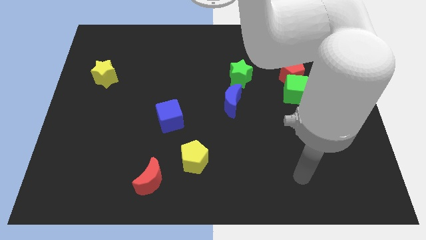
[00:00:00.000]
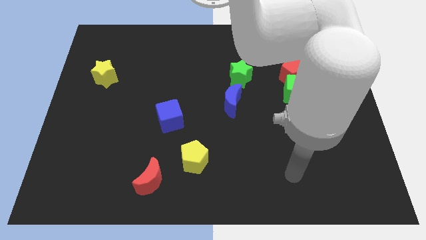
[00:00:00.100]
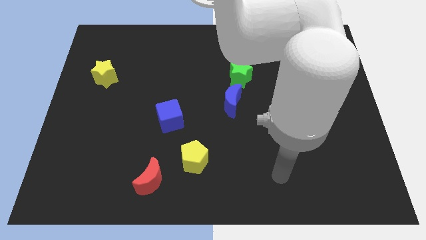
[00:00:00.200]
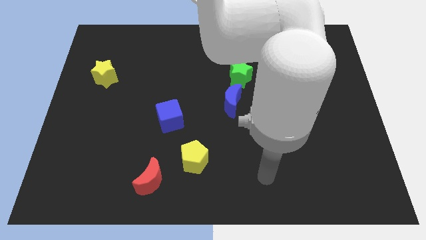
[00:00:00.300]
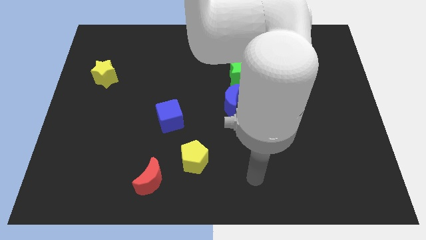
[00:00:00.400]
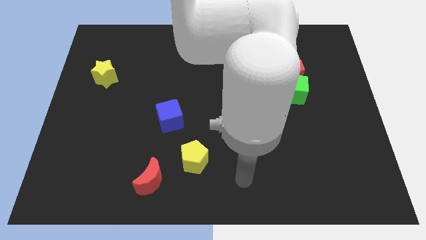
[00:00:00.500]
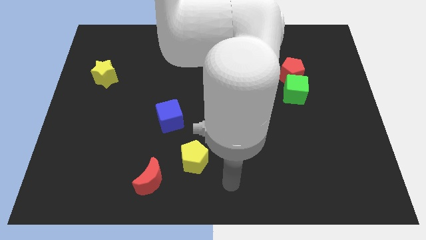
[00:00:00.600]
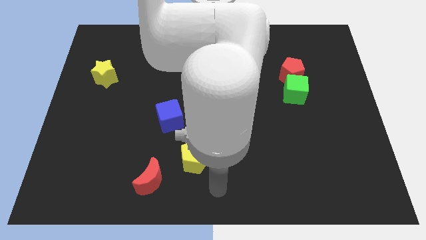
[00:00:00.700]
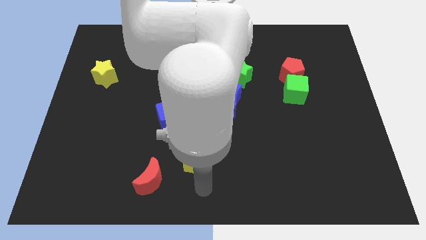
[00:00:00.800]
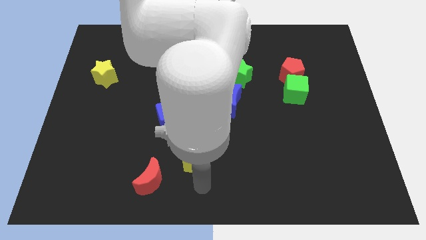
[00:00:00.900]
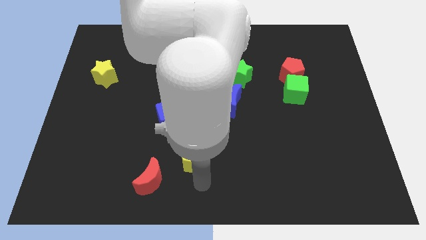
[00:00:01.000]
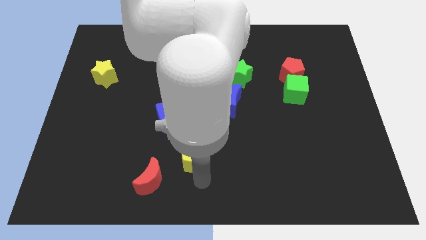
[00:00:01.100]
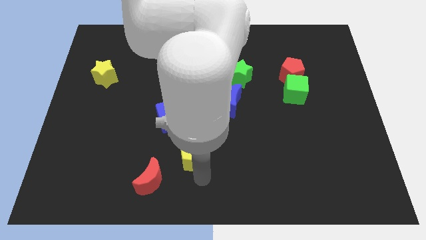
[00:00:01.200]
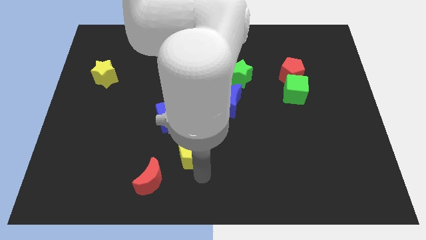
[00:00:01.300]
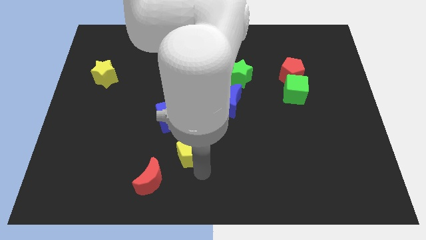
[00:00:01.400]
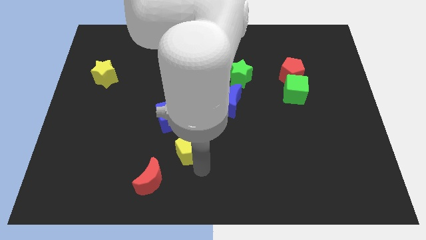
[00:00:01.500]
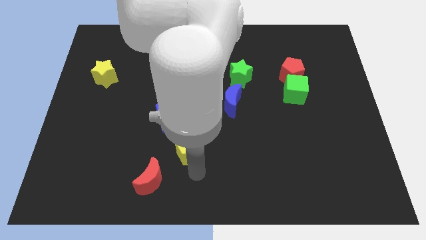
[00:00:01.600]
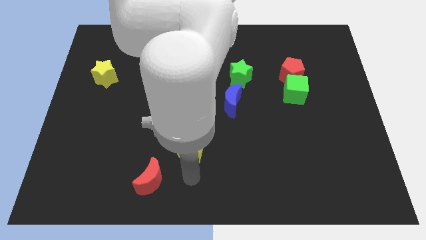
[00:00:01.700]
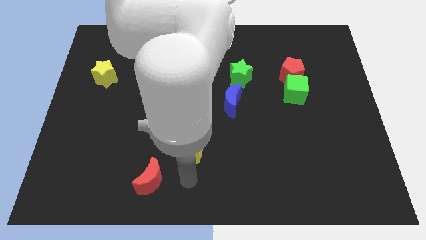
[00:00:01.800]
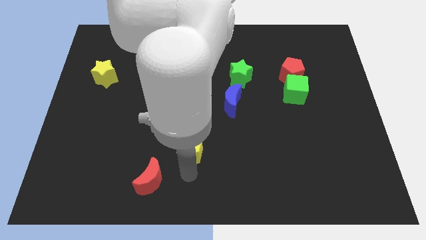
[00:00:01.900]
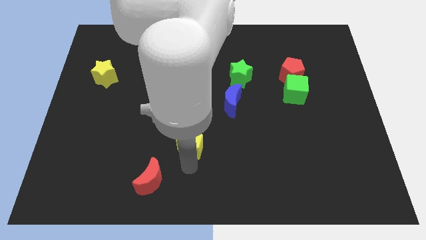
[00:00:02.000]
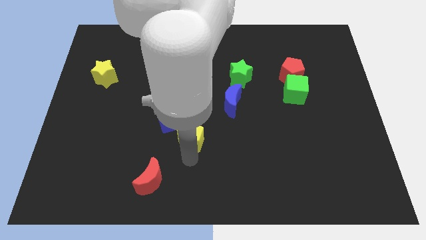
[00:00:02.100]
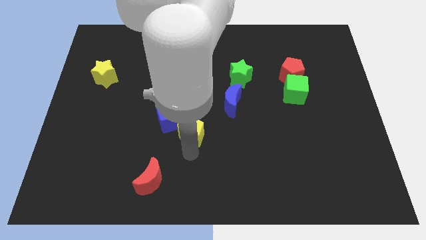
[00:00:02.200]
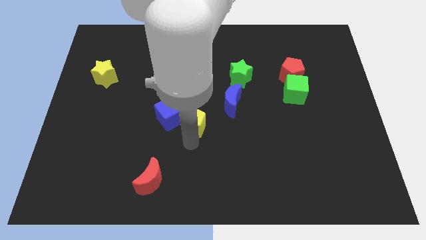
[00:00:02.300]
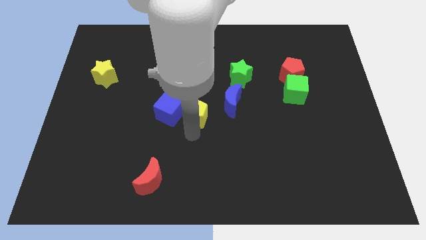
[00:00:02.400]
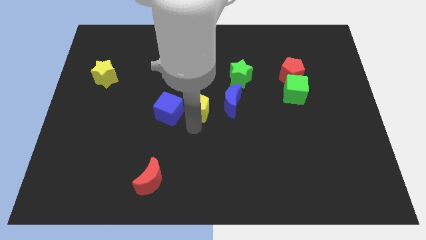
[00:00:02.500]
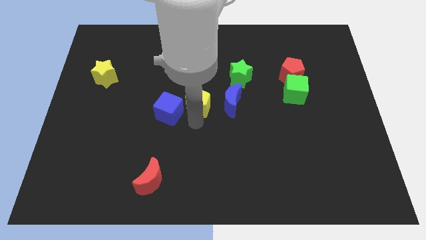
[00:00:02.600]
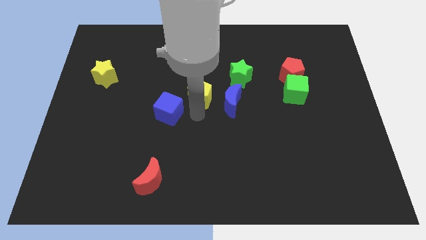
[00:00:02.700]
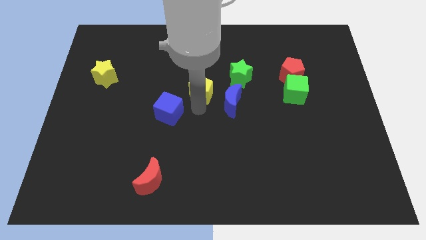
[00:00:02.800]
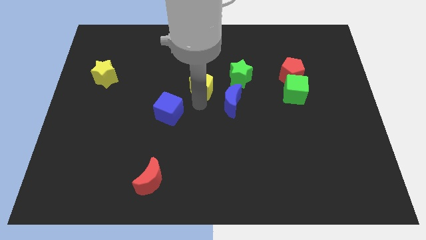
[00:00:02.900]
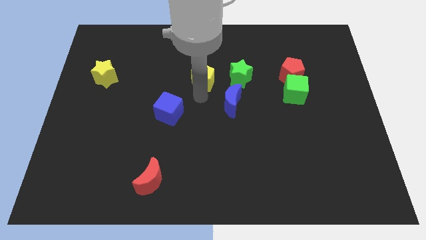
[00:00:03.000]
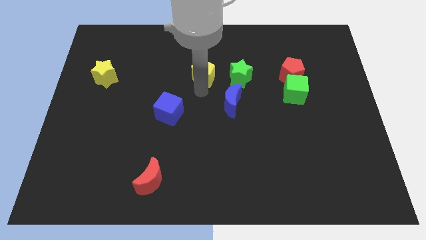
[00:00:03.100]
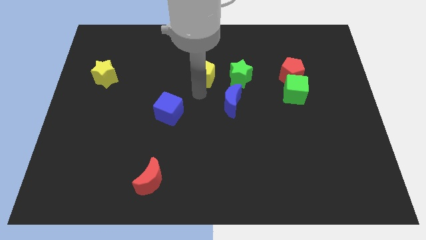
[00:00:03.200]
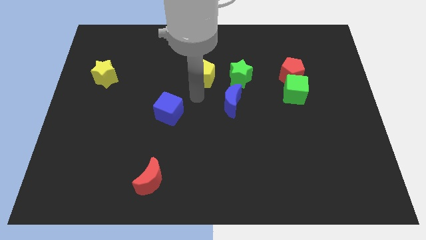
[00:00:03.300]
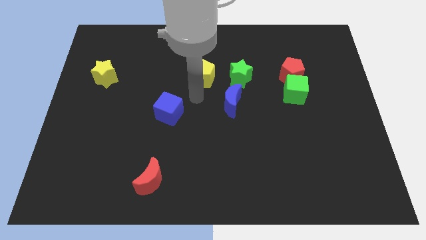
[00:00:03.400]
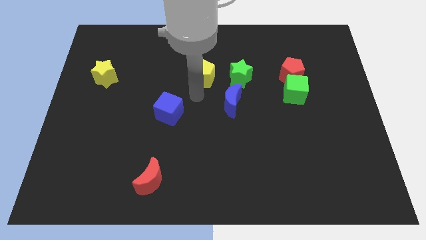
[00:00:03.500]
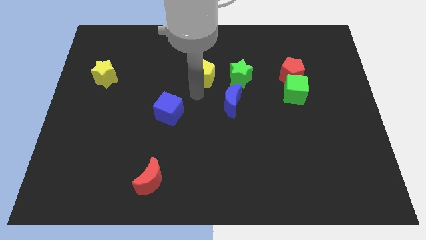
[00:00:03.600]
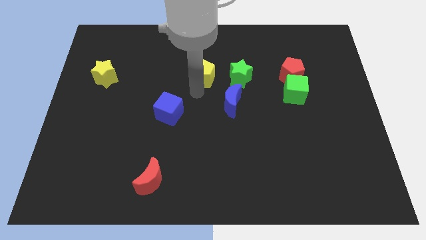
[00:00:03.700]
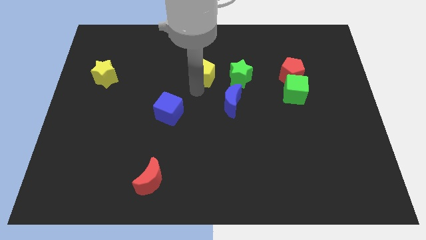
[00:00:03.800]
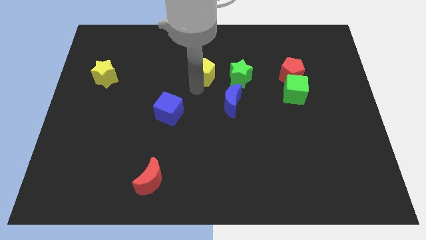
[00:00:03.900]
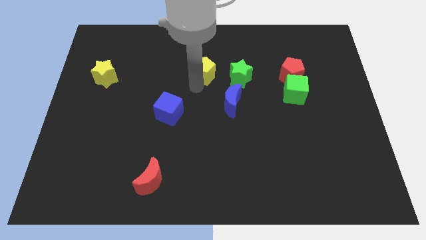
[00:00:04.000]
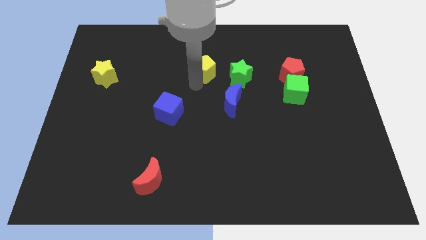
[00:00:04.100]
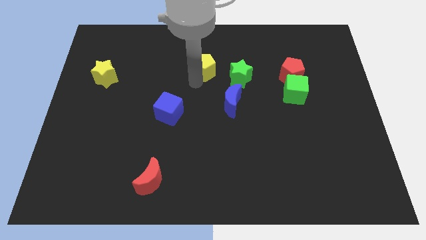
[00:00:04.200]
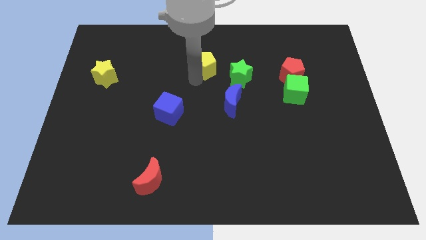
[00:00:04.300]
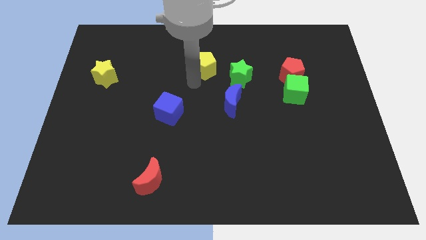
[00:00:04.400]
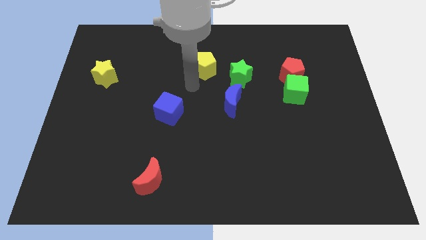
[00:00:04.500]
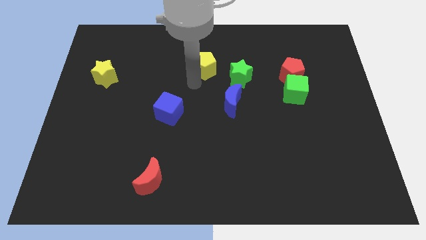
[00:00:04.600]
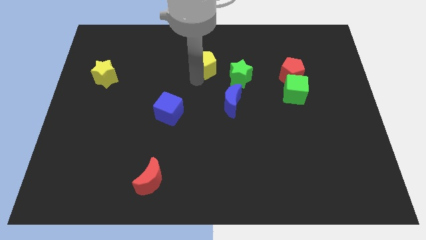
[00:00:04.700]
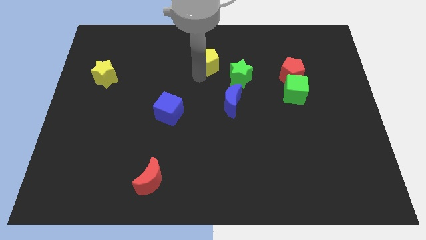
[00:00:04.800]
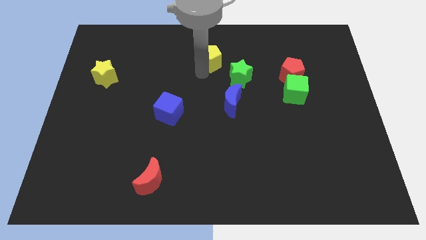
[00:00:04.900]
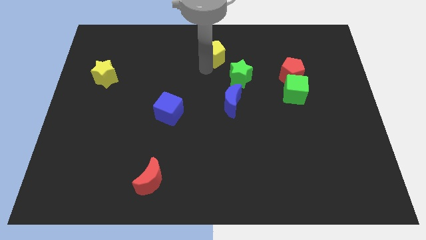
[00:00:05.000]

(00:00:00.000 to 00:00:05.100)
slide the yellow pentagon to the top side

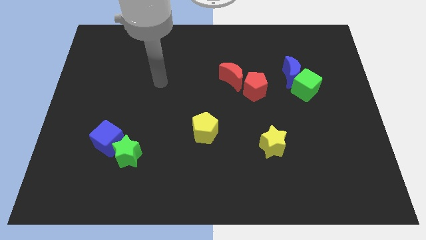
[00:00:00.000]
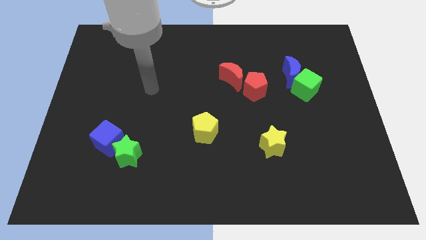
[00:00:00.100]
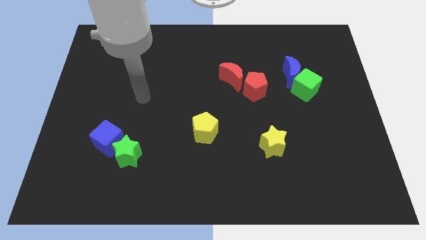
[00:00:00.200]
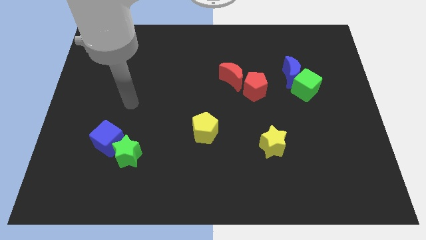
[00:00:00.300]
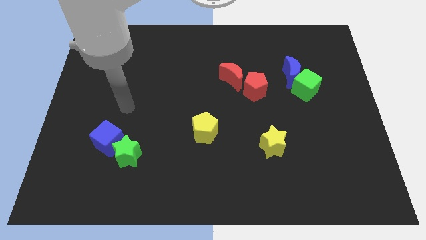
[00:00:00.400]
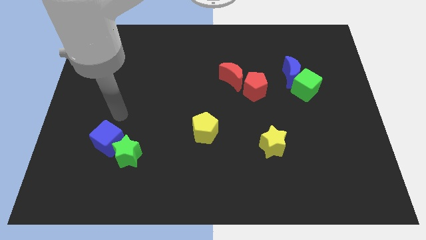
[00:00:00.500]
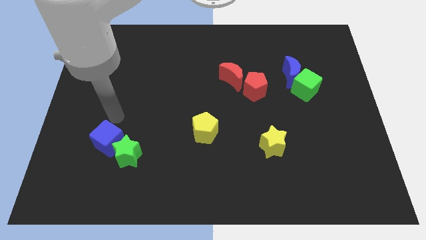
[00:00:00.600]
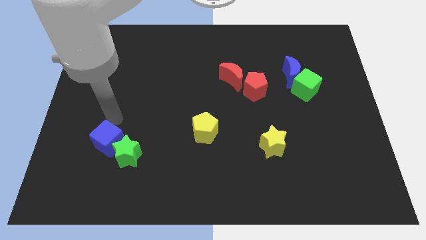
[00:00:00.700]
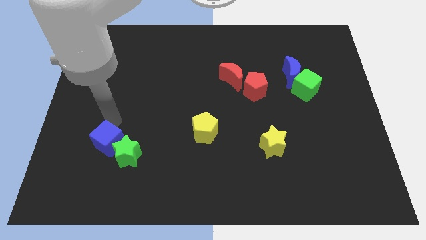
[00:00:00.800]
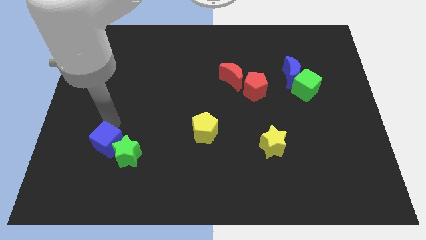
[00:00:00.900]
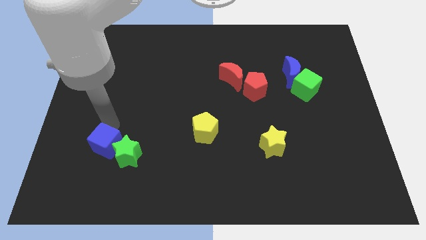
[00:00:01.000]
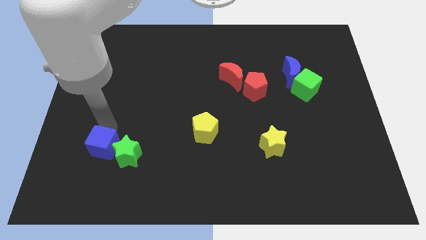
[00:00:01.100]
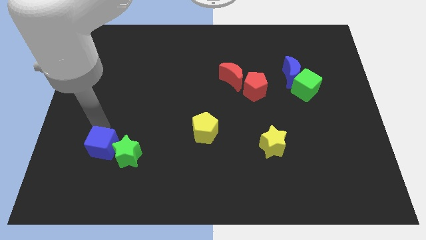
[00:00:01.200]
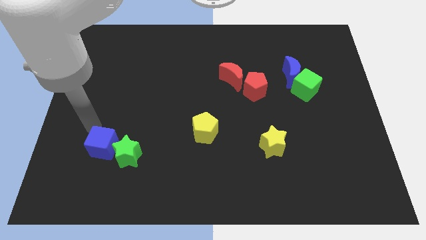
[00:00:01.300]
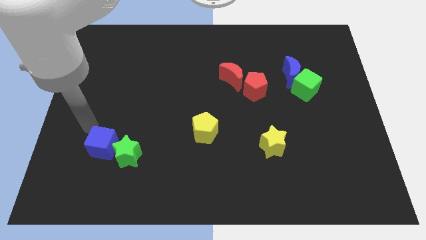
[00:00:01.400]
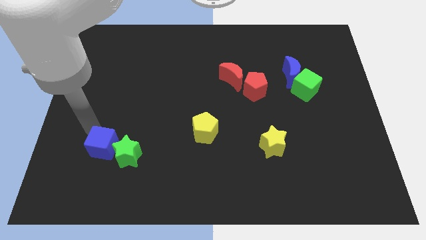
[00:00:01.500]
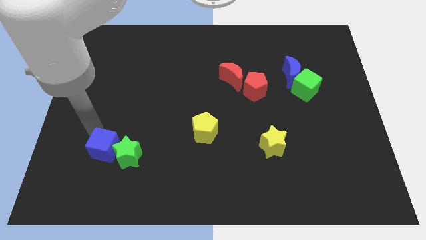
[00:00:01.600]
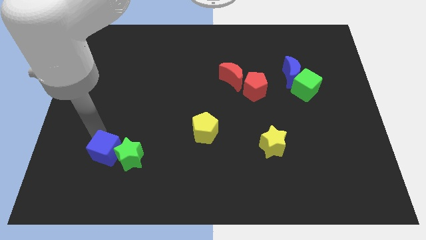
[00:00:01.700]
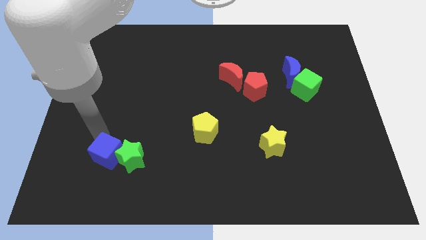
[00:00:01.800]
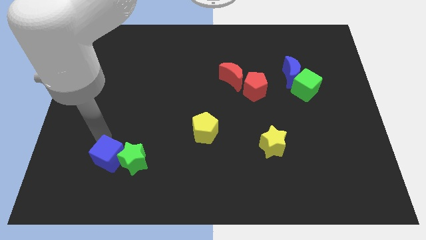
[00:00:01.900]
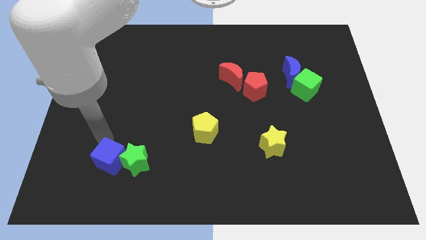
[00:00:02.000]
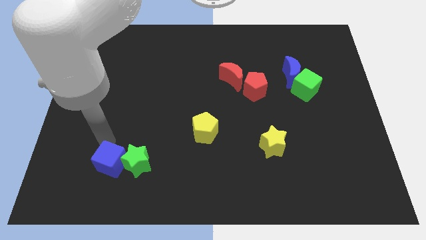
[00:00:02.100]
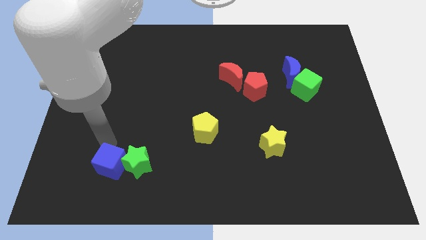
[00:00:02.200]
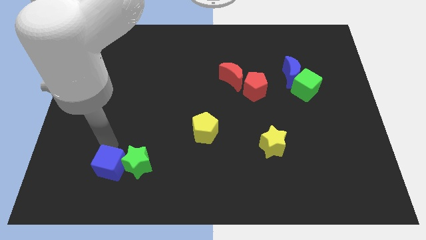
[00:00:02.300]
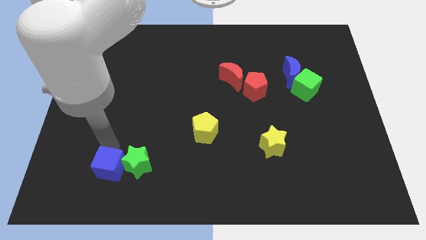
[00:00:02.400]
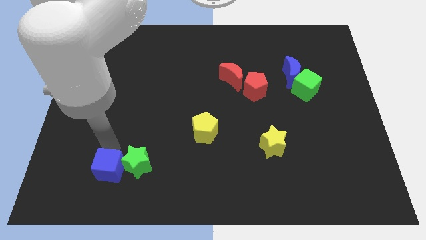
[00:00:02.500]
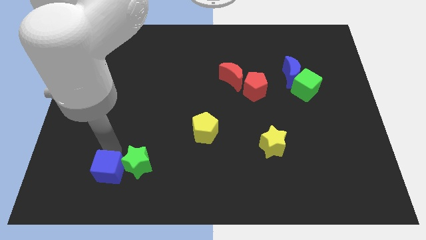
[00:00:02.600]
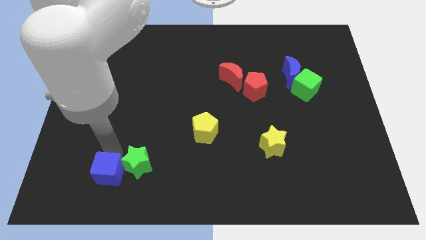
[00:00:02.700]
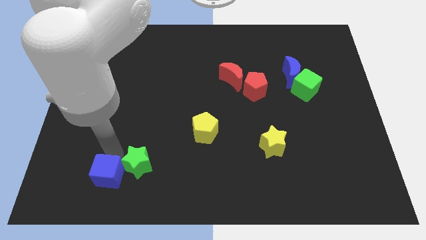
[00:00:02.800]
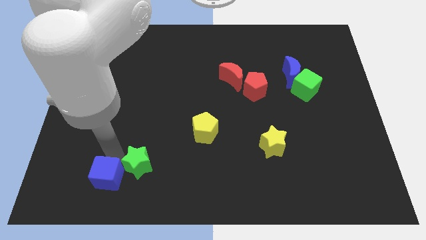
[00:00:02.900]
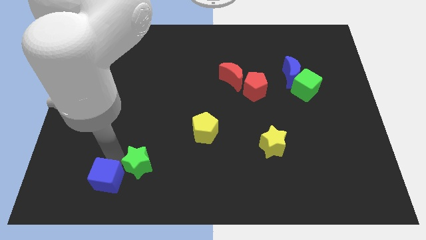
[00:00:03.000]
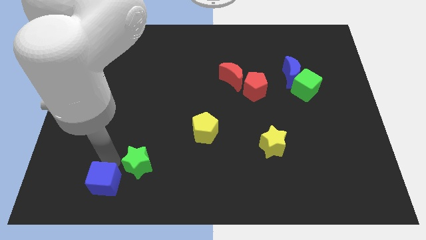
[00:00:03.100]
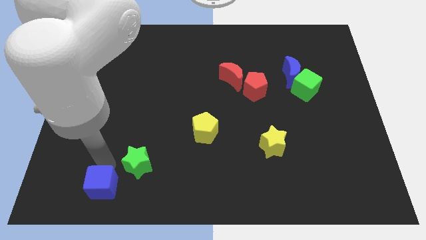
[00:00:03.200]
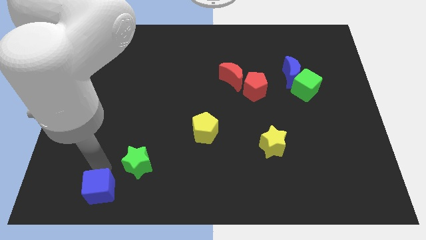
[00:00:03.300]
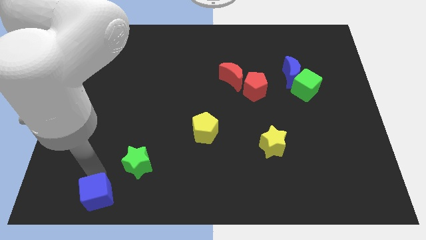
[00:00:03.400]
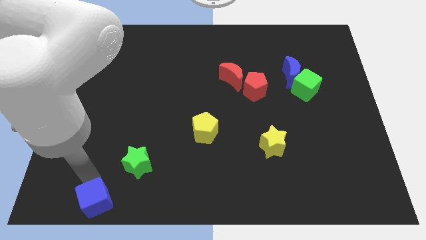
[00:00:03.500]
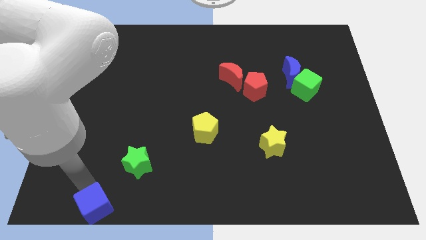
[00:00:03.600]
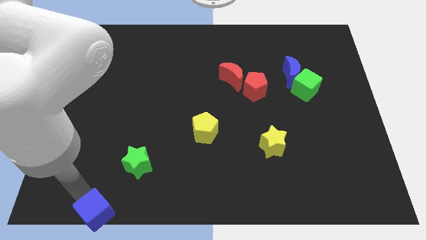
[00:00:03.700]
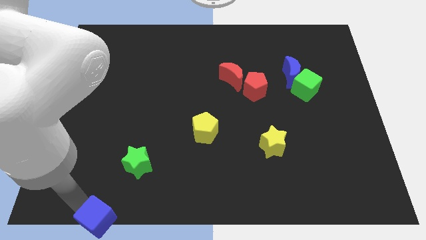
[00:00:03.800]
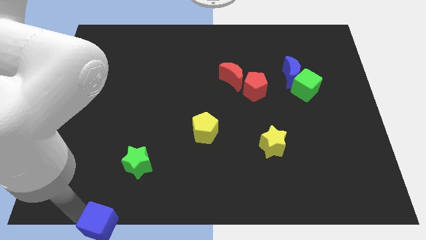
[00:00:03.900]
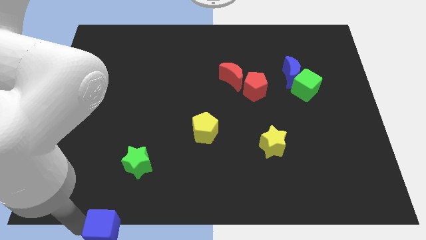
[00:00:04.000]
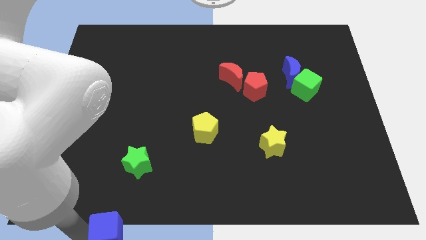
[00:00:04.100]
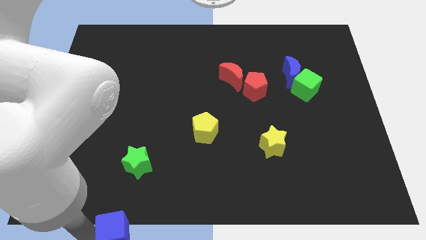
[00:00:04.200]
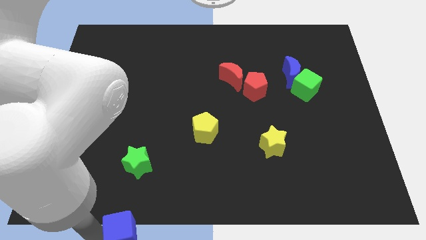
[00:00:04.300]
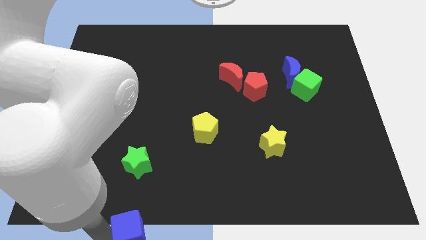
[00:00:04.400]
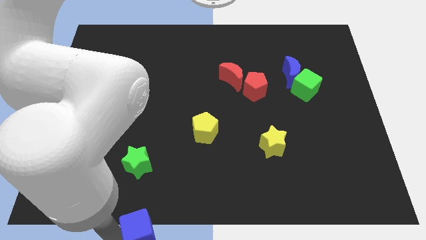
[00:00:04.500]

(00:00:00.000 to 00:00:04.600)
move the blue cube to the bottom
